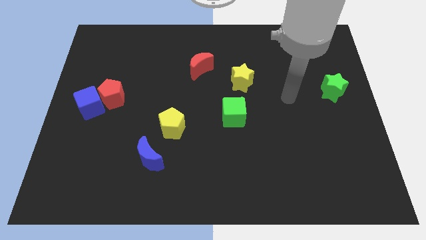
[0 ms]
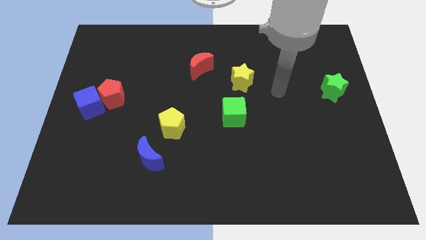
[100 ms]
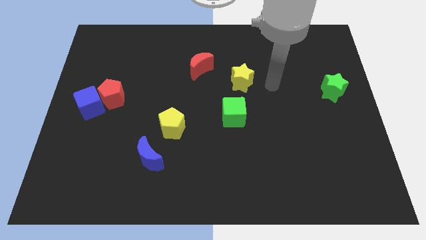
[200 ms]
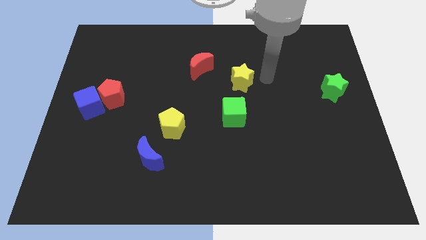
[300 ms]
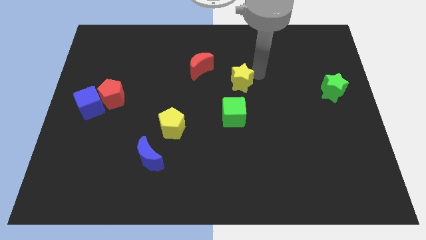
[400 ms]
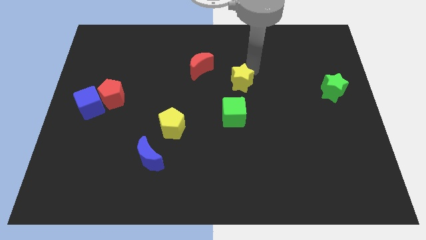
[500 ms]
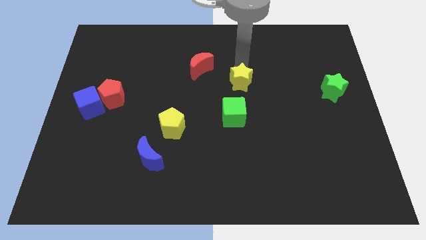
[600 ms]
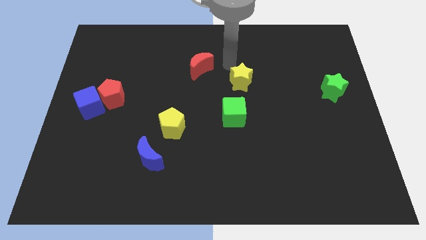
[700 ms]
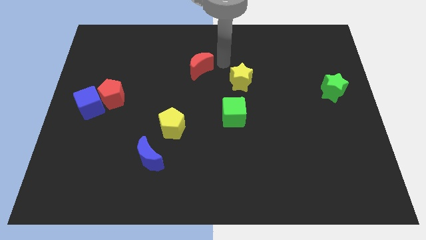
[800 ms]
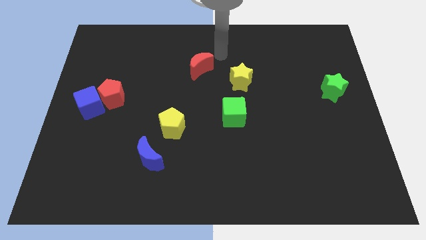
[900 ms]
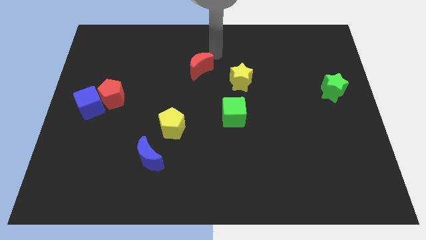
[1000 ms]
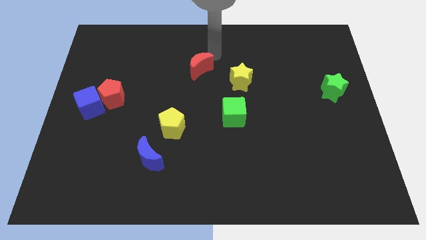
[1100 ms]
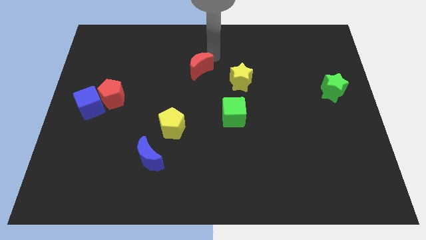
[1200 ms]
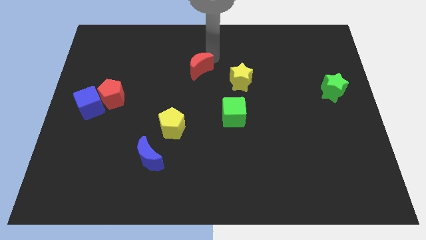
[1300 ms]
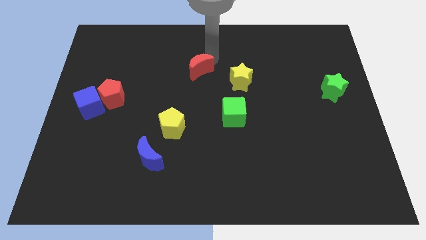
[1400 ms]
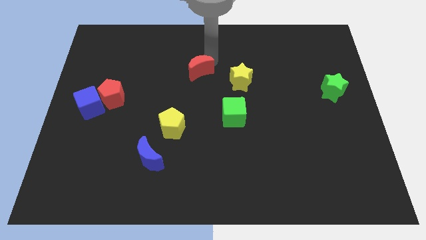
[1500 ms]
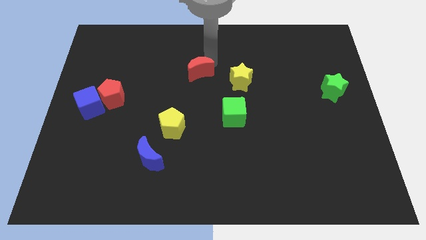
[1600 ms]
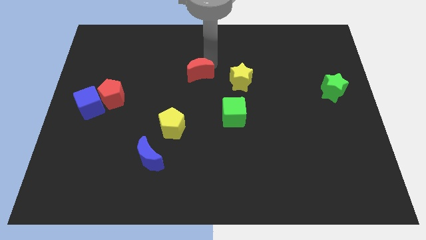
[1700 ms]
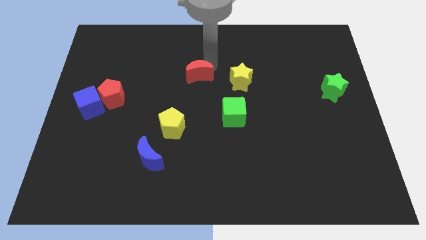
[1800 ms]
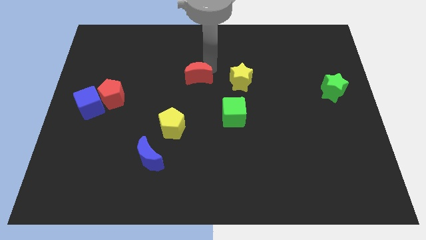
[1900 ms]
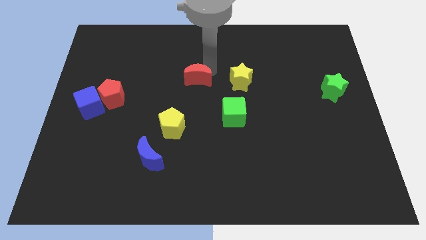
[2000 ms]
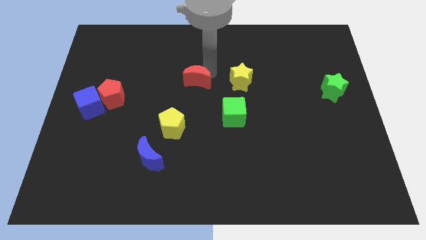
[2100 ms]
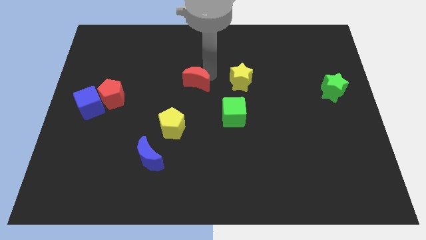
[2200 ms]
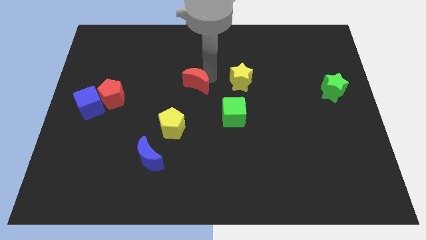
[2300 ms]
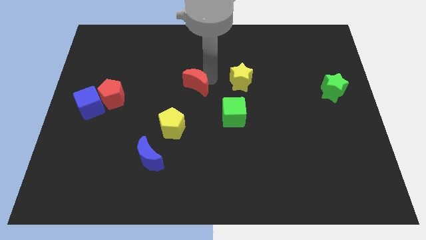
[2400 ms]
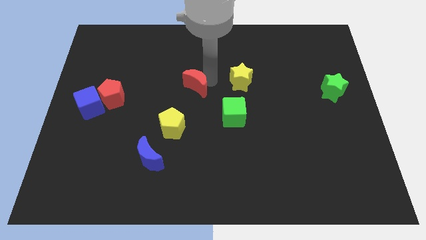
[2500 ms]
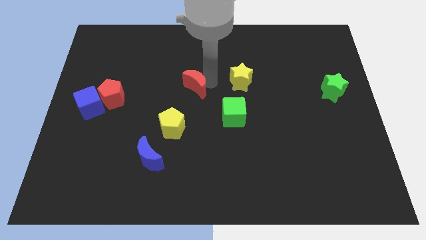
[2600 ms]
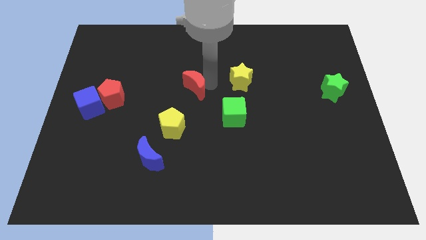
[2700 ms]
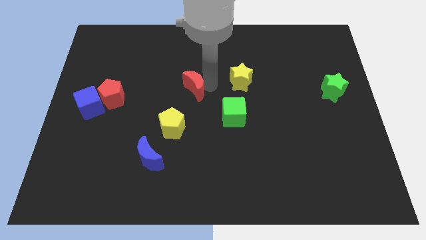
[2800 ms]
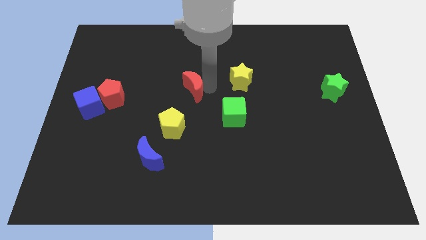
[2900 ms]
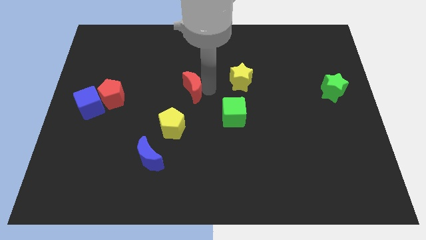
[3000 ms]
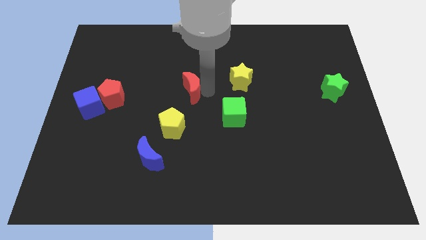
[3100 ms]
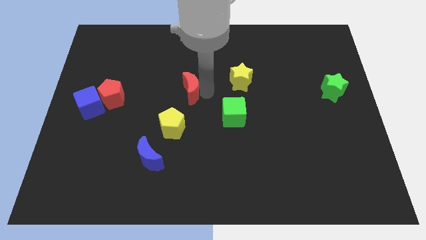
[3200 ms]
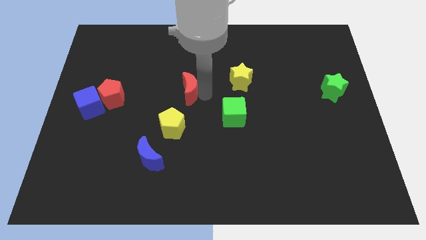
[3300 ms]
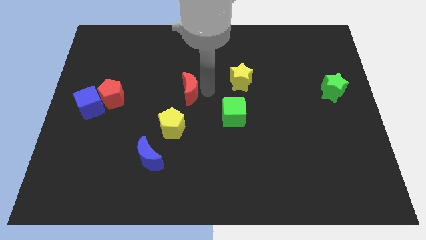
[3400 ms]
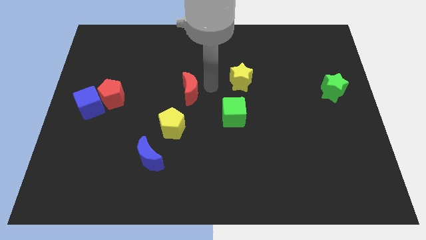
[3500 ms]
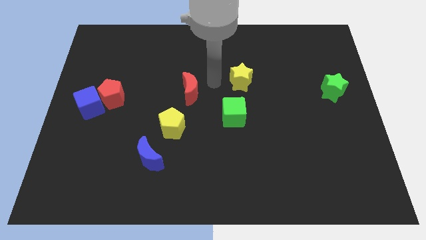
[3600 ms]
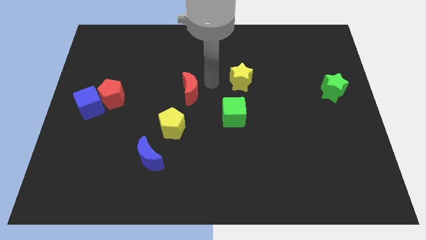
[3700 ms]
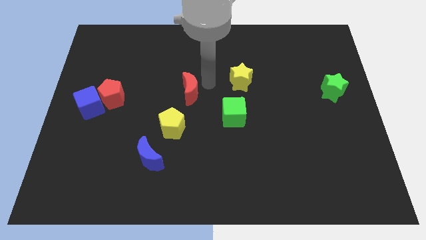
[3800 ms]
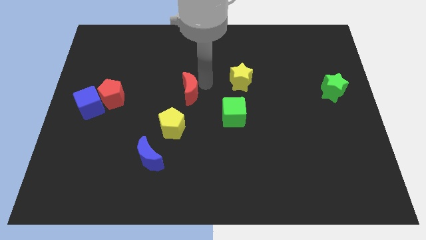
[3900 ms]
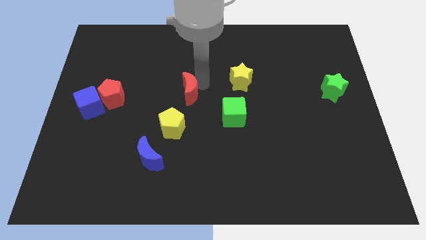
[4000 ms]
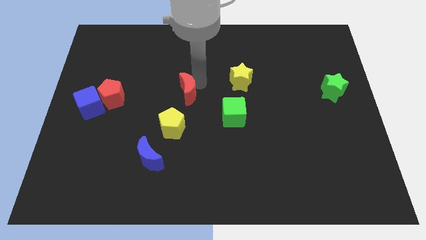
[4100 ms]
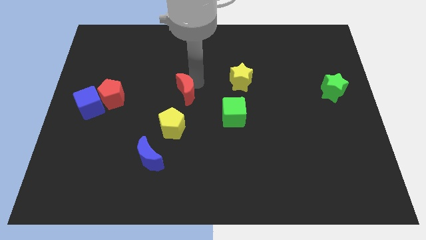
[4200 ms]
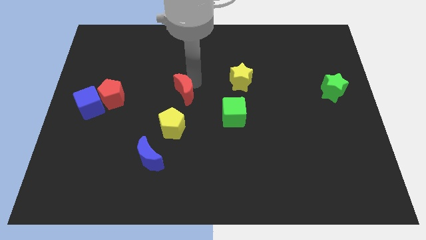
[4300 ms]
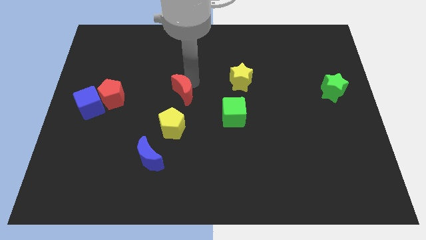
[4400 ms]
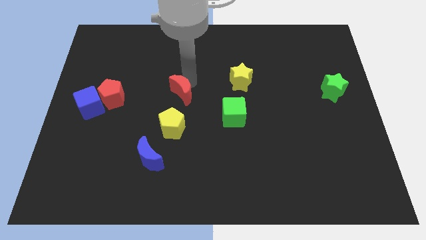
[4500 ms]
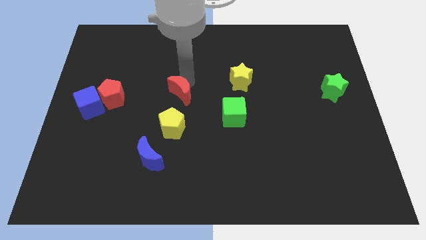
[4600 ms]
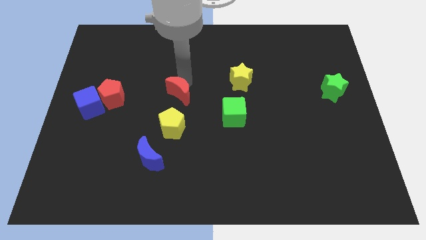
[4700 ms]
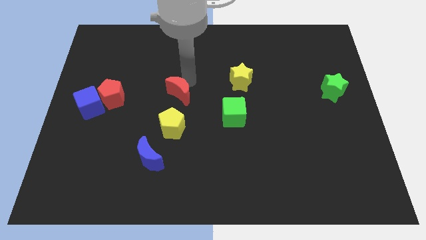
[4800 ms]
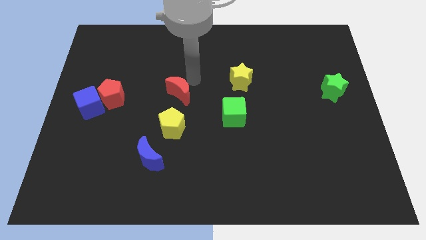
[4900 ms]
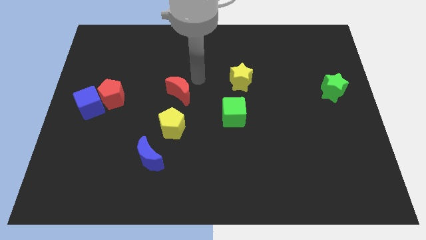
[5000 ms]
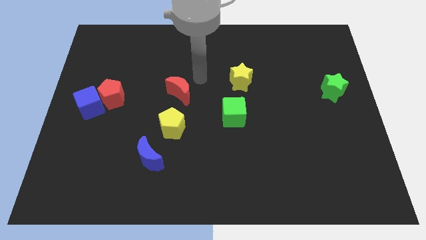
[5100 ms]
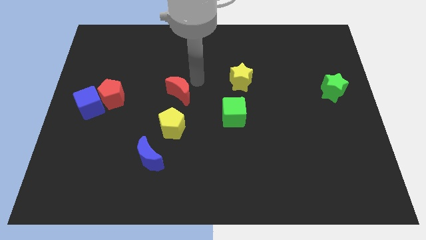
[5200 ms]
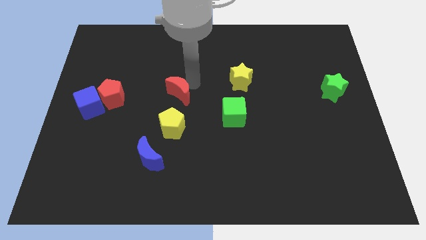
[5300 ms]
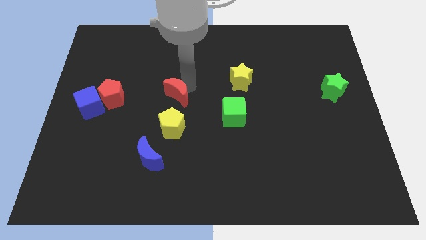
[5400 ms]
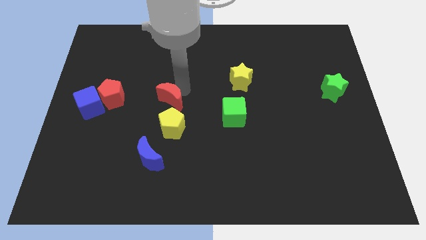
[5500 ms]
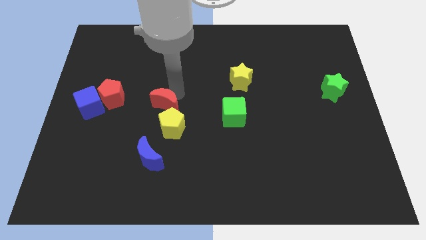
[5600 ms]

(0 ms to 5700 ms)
push the red moon above the blue moon

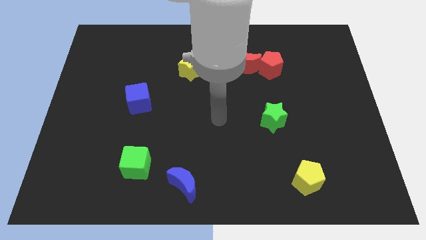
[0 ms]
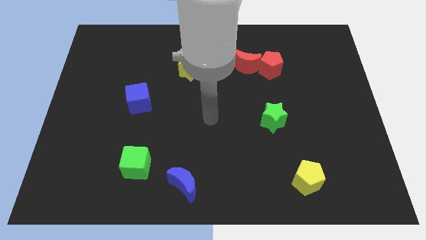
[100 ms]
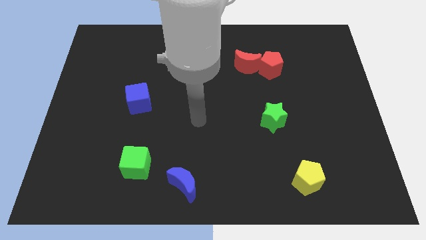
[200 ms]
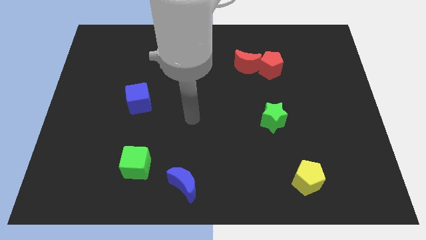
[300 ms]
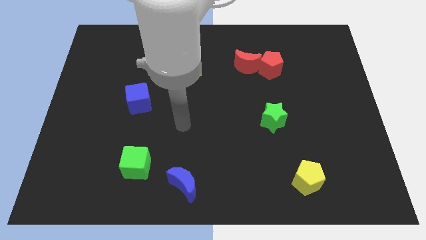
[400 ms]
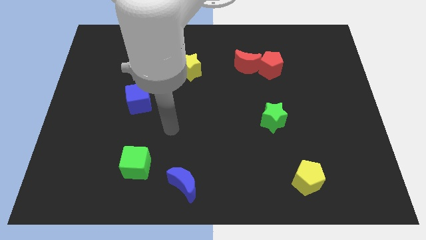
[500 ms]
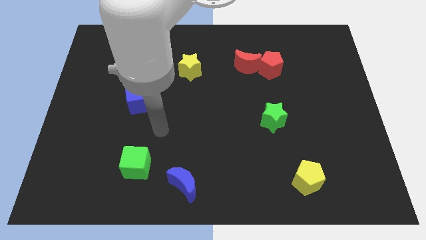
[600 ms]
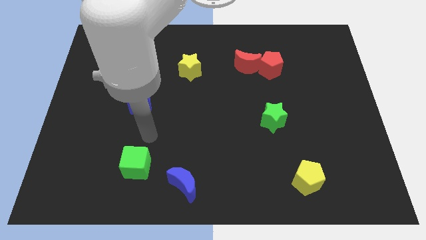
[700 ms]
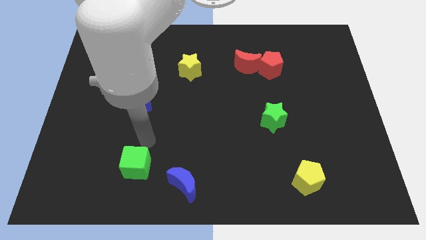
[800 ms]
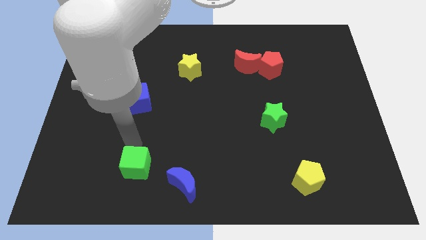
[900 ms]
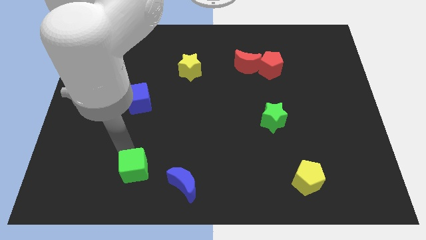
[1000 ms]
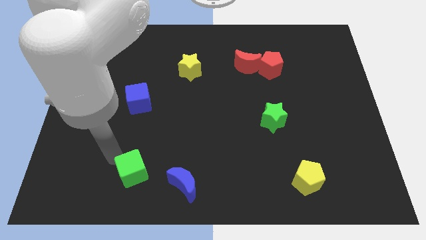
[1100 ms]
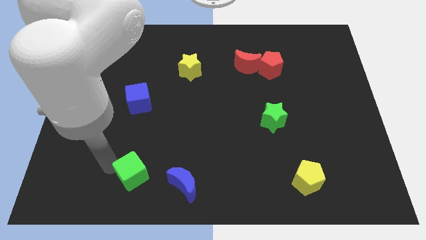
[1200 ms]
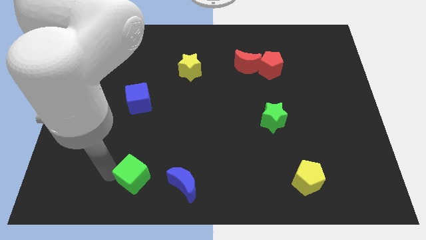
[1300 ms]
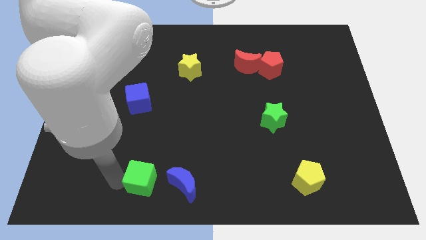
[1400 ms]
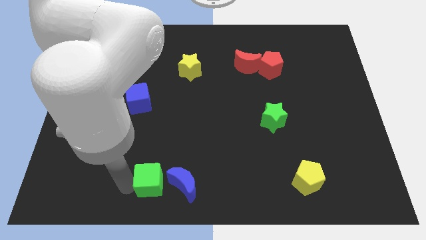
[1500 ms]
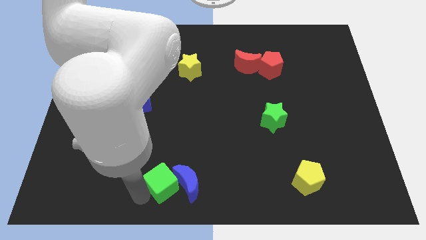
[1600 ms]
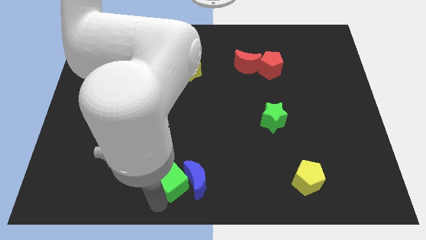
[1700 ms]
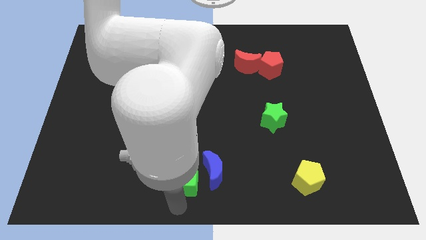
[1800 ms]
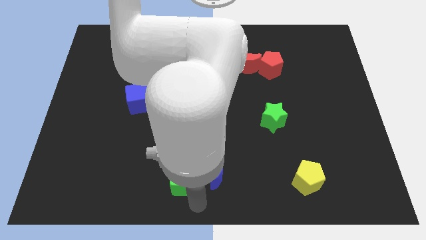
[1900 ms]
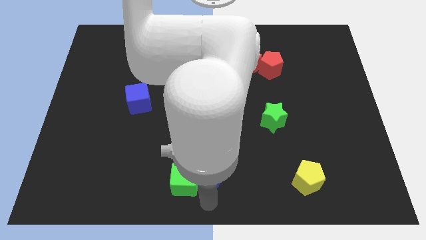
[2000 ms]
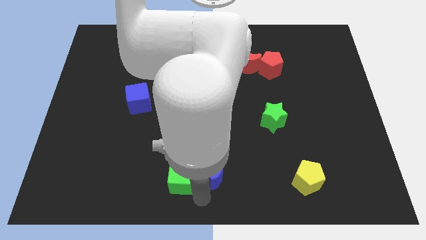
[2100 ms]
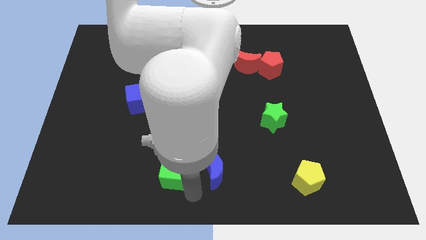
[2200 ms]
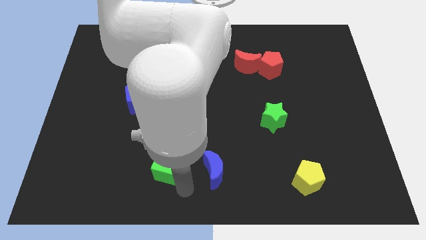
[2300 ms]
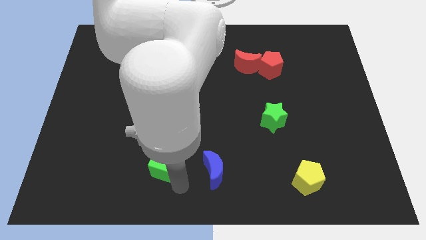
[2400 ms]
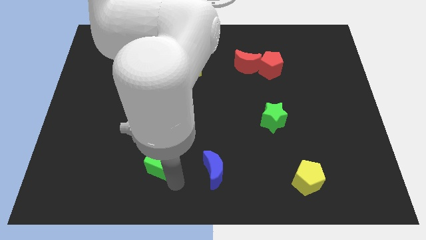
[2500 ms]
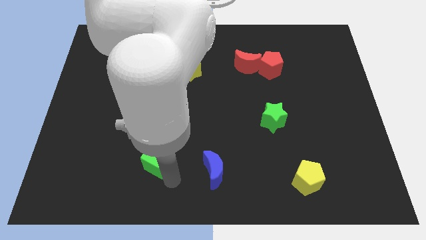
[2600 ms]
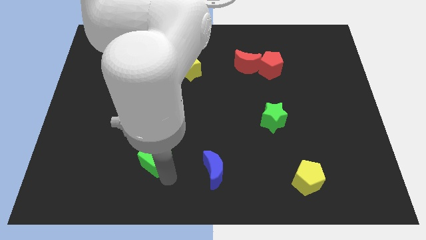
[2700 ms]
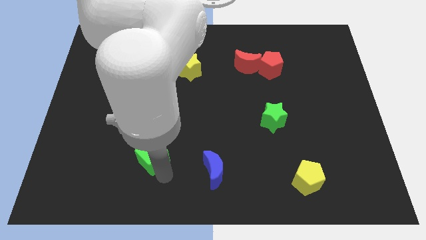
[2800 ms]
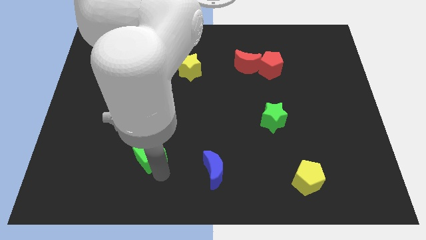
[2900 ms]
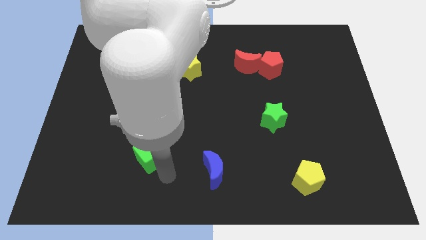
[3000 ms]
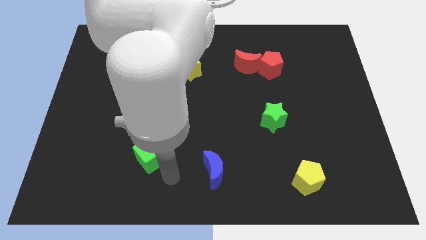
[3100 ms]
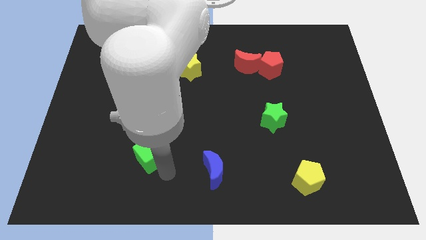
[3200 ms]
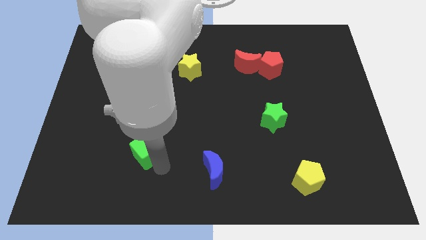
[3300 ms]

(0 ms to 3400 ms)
push the green cube to the bottom of the blue cube
